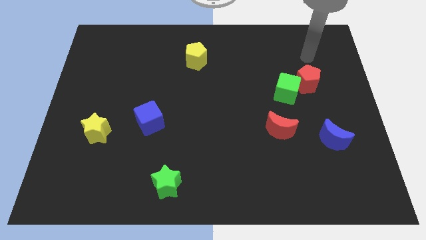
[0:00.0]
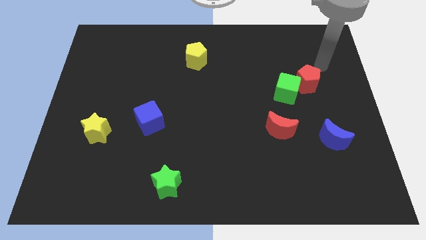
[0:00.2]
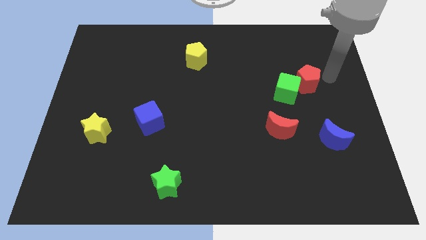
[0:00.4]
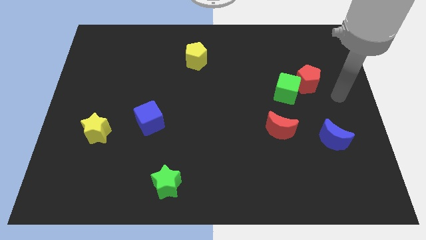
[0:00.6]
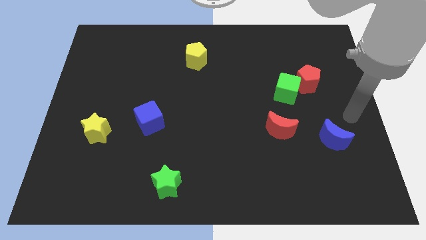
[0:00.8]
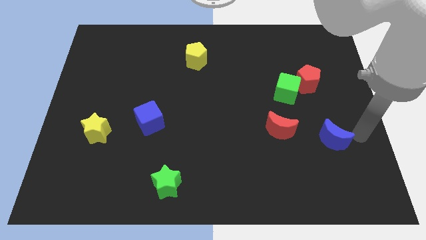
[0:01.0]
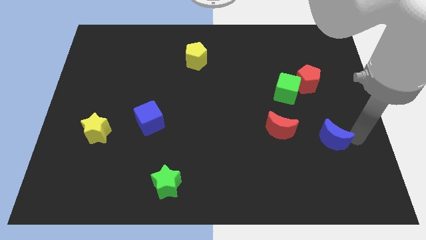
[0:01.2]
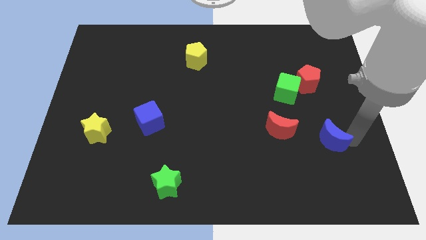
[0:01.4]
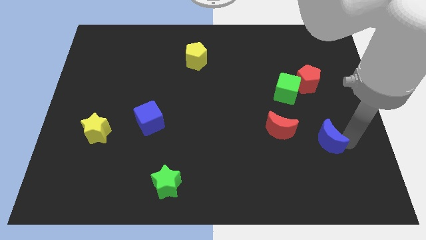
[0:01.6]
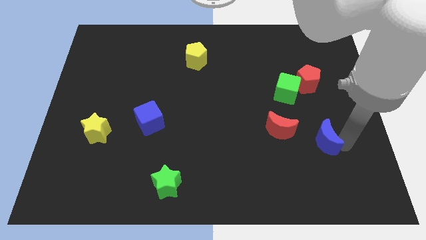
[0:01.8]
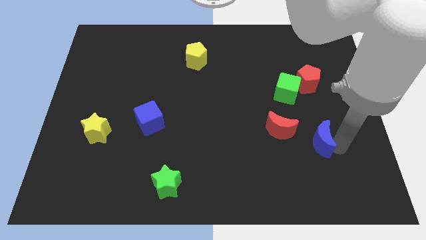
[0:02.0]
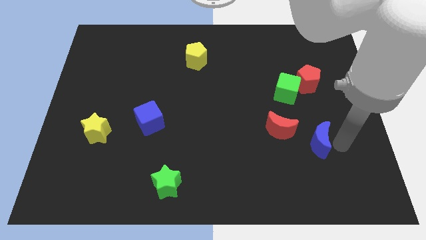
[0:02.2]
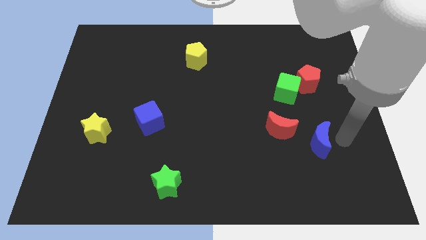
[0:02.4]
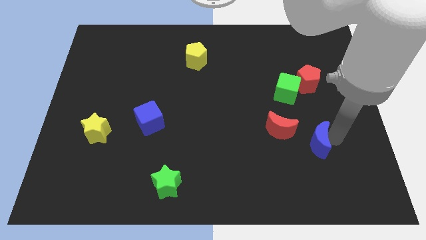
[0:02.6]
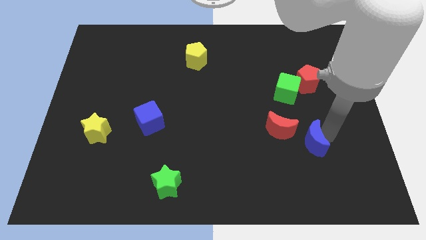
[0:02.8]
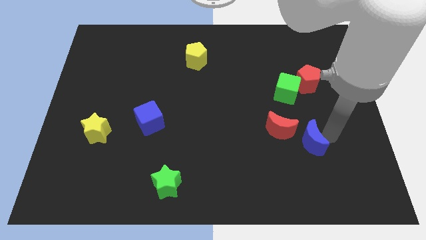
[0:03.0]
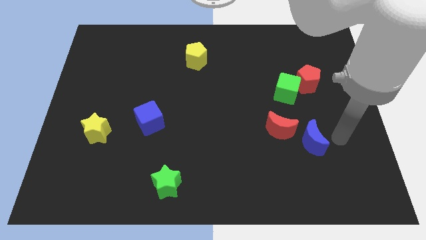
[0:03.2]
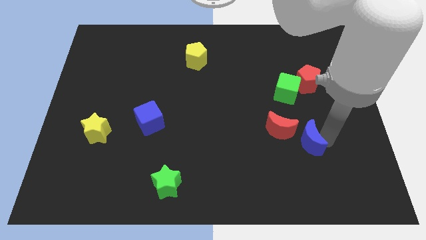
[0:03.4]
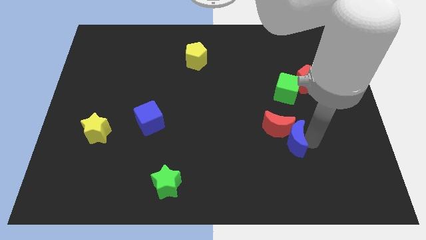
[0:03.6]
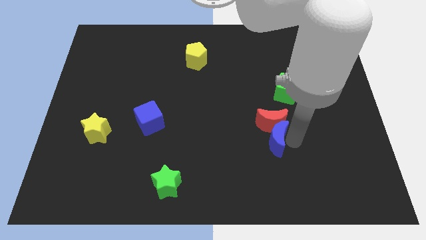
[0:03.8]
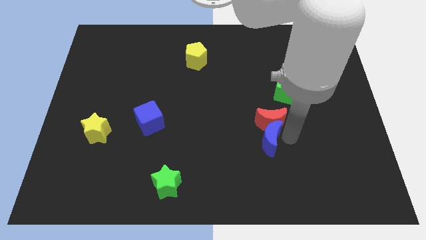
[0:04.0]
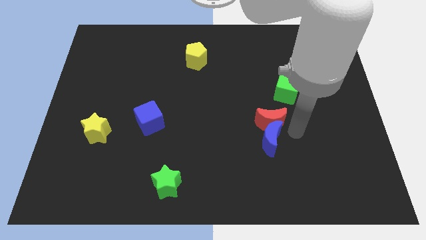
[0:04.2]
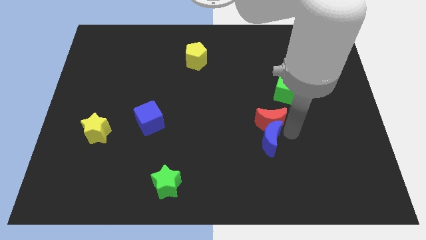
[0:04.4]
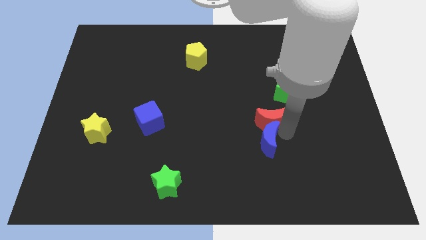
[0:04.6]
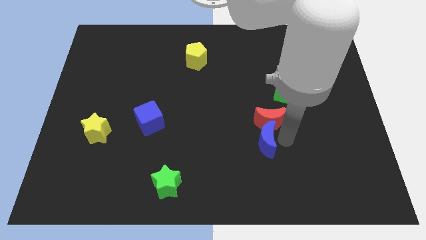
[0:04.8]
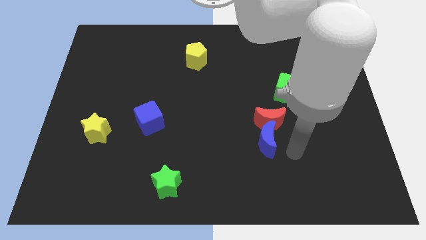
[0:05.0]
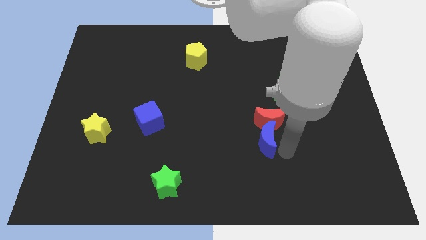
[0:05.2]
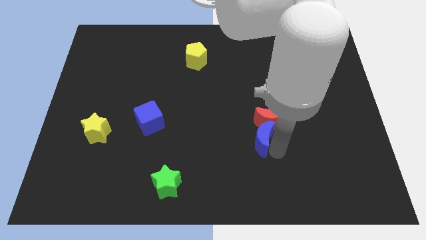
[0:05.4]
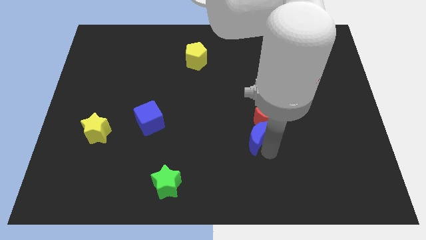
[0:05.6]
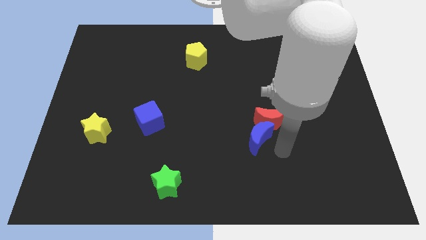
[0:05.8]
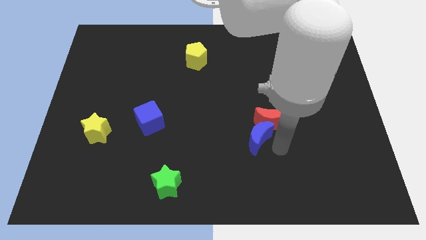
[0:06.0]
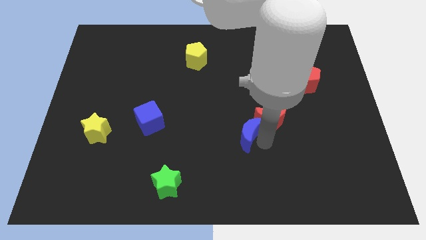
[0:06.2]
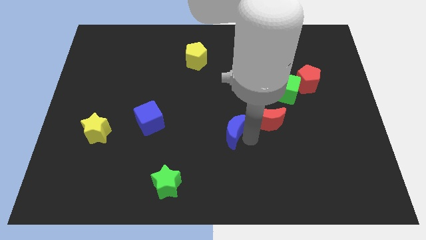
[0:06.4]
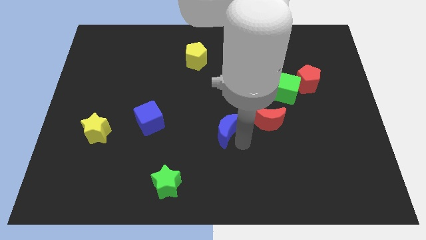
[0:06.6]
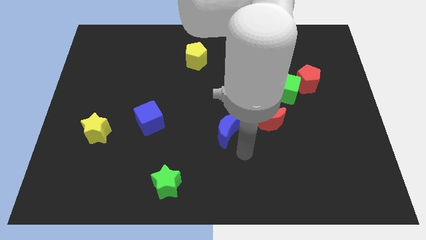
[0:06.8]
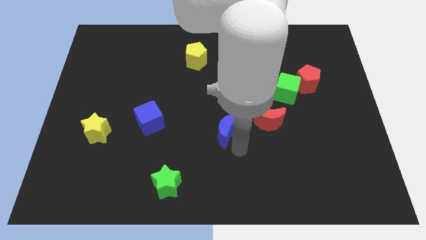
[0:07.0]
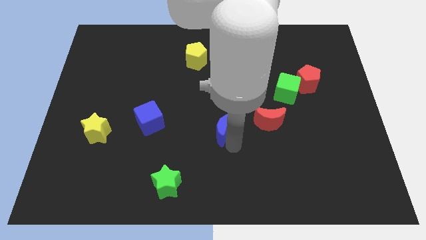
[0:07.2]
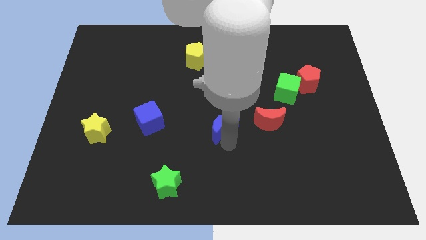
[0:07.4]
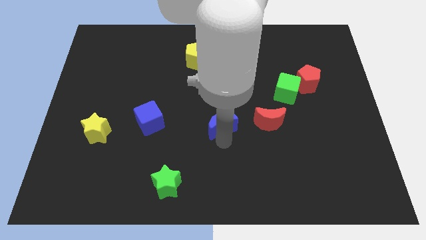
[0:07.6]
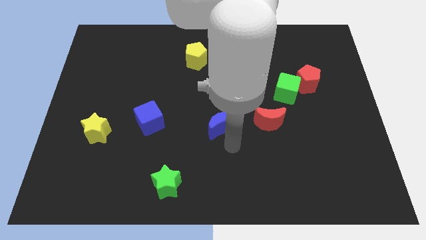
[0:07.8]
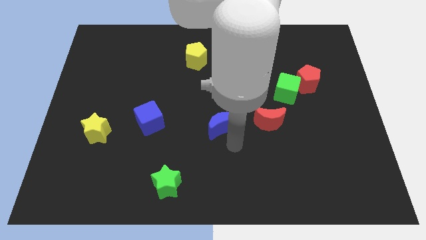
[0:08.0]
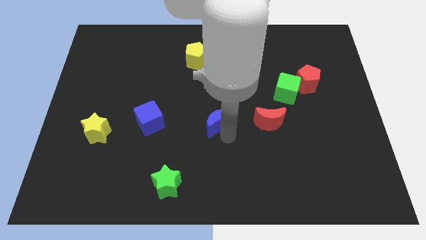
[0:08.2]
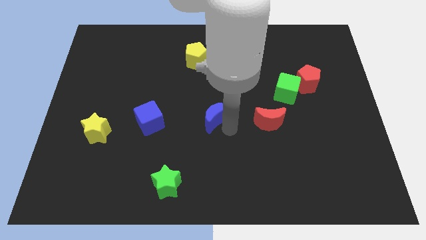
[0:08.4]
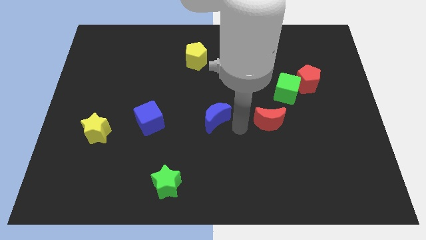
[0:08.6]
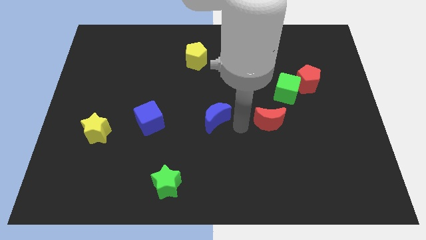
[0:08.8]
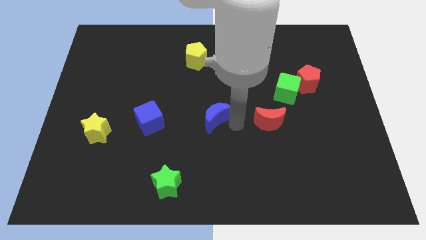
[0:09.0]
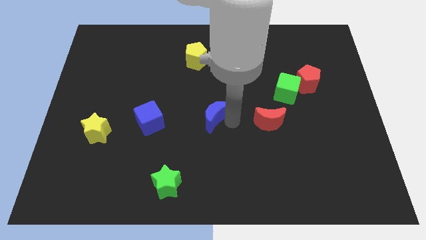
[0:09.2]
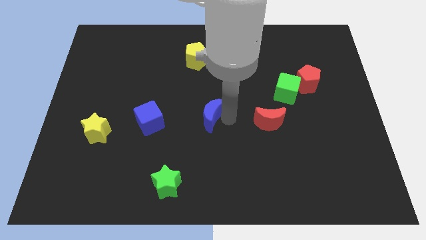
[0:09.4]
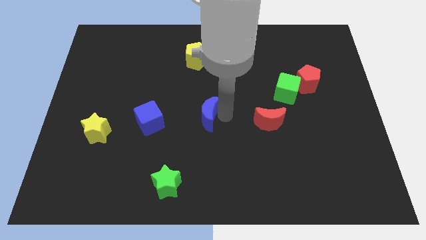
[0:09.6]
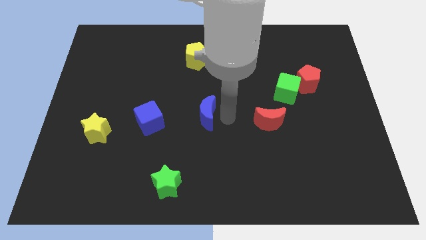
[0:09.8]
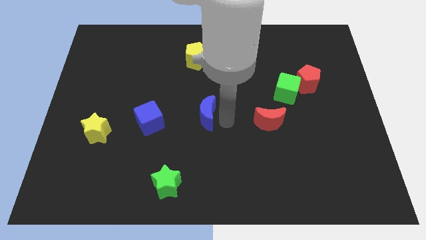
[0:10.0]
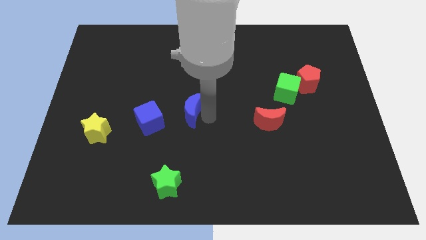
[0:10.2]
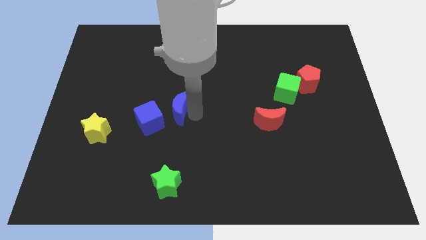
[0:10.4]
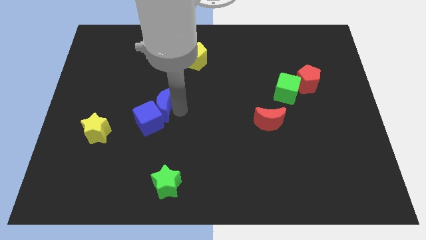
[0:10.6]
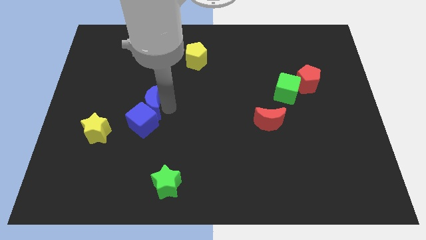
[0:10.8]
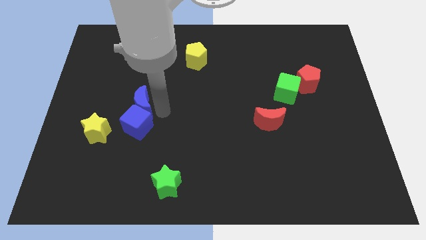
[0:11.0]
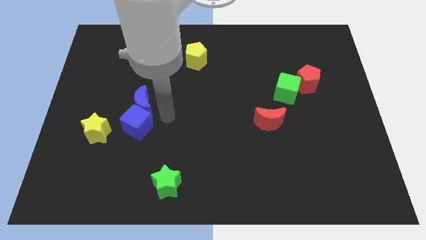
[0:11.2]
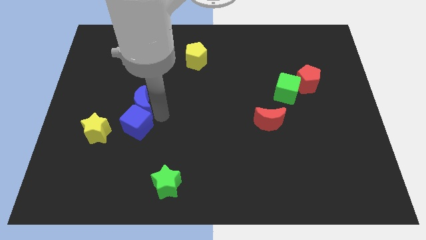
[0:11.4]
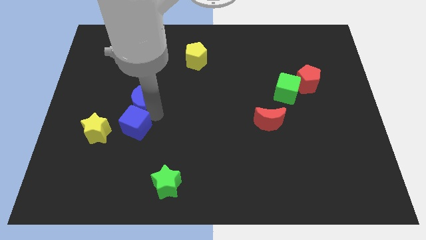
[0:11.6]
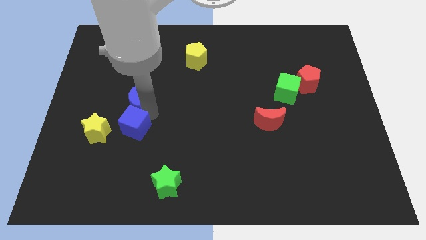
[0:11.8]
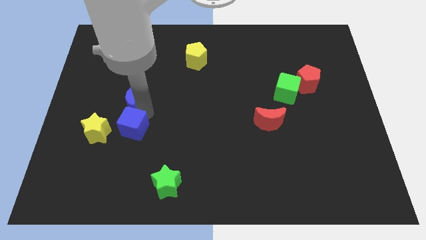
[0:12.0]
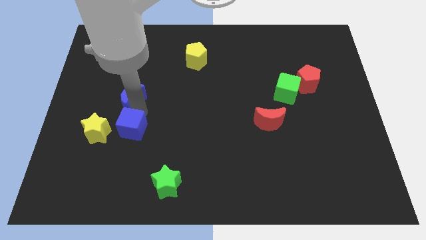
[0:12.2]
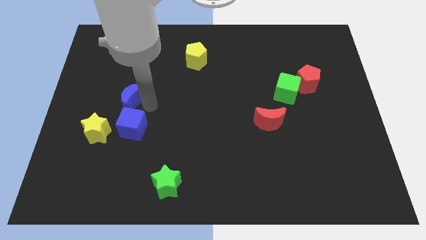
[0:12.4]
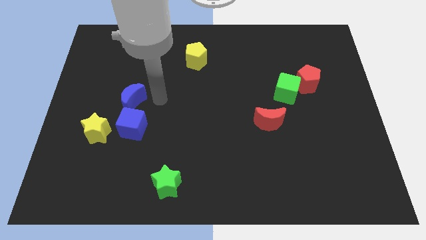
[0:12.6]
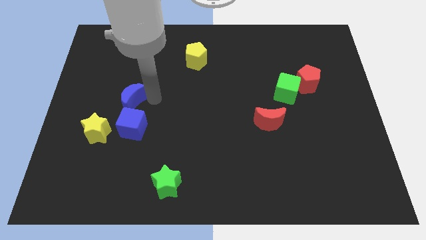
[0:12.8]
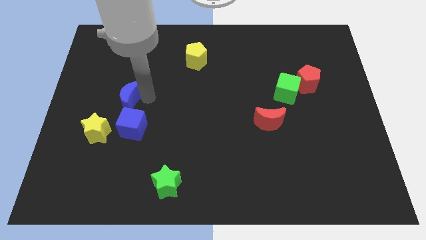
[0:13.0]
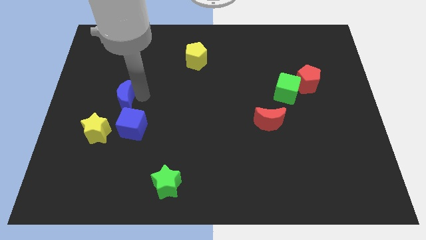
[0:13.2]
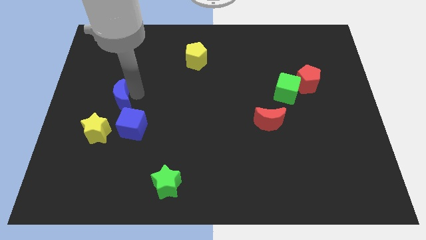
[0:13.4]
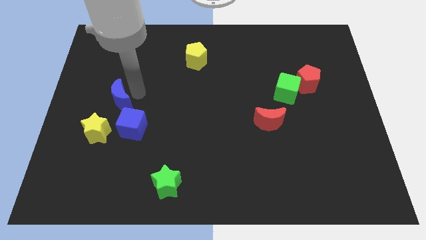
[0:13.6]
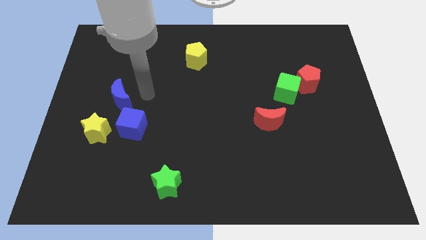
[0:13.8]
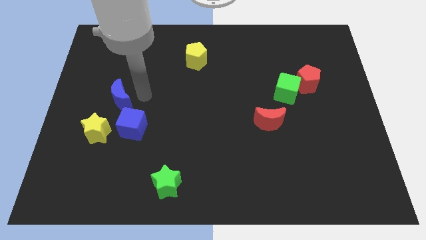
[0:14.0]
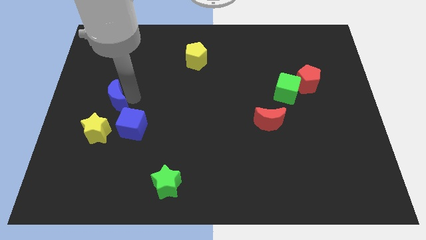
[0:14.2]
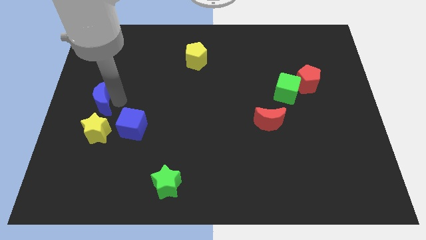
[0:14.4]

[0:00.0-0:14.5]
move the blue moon to the center left
